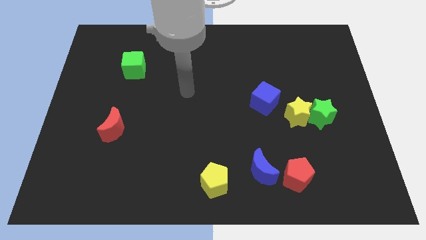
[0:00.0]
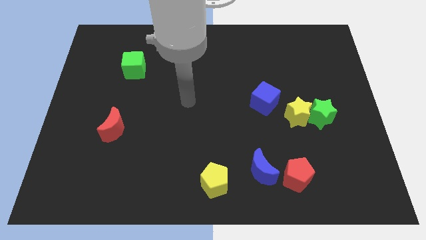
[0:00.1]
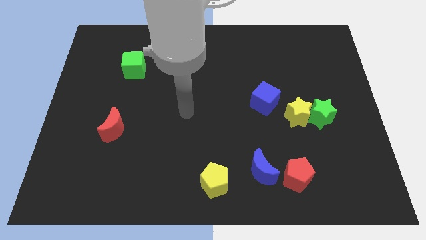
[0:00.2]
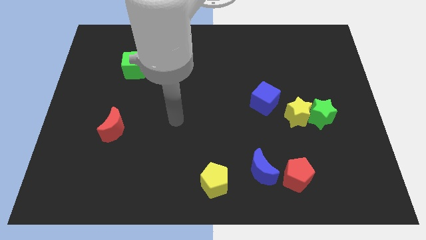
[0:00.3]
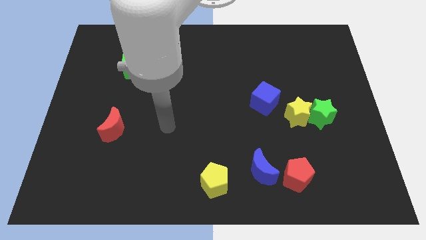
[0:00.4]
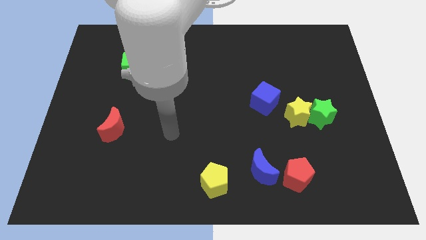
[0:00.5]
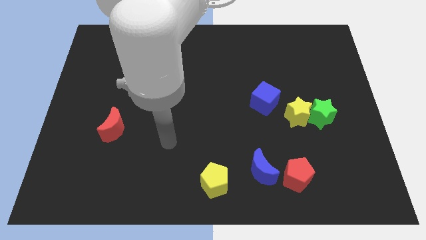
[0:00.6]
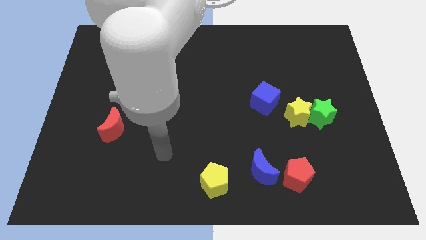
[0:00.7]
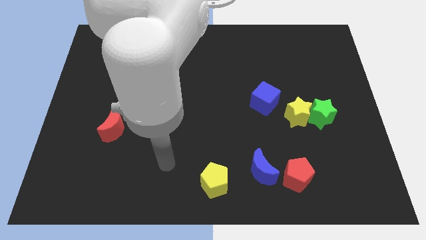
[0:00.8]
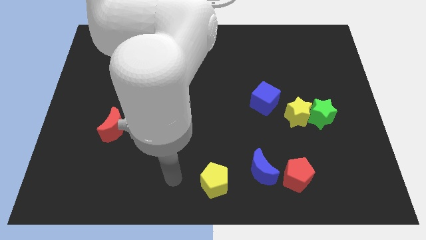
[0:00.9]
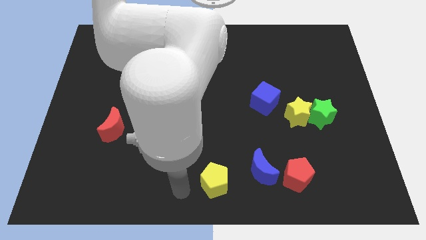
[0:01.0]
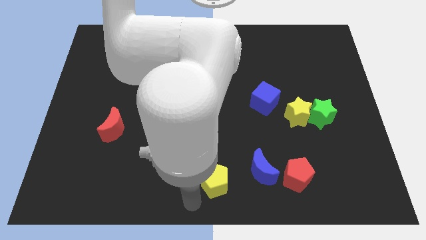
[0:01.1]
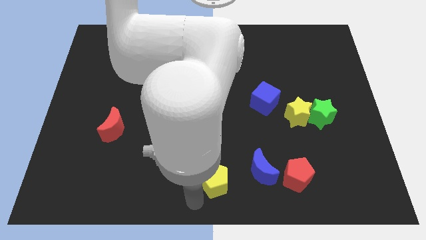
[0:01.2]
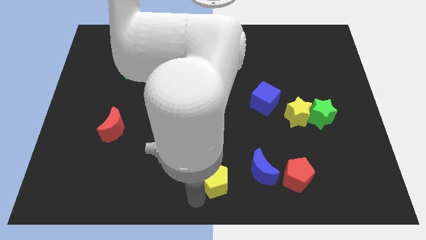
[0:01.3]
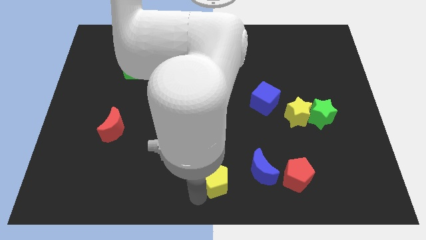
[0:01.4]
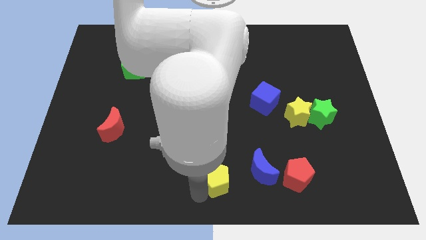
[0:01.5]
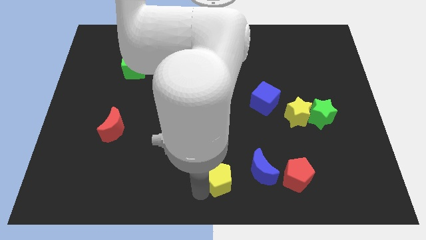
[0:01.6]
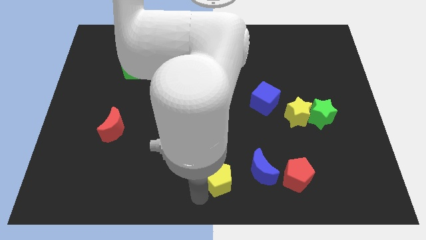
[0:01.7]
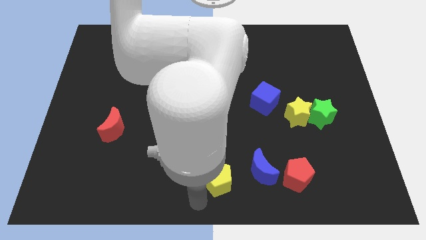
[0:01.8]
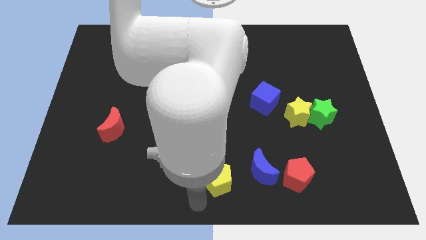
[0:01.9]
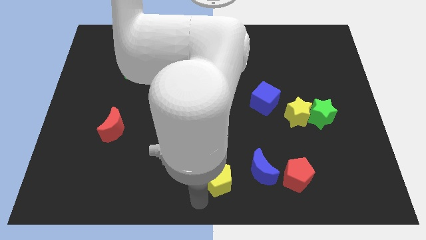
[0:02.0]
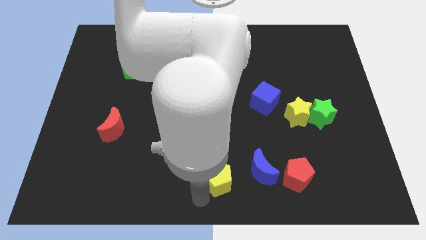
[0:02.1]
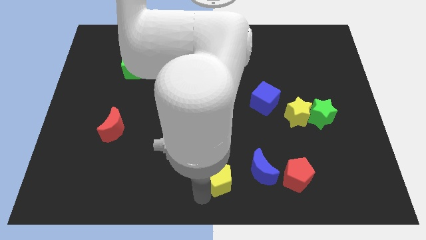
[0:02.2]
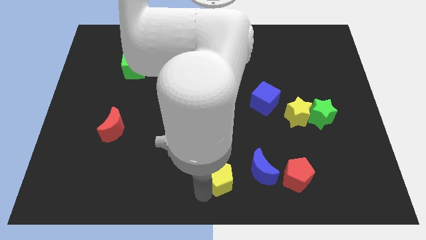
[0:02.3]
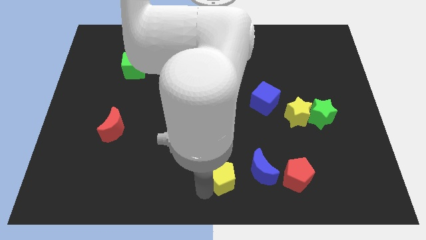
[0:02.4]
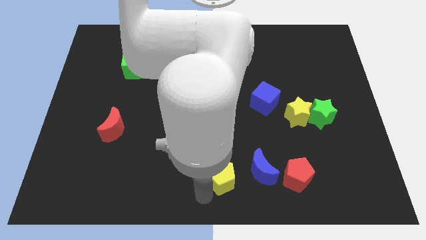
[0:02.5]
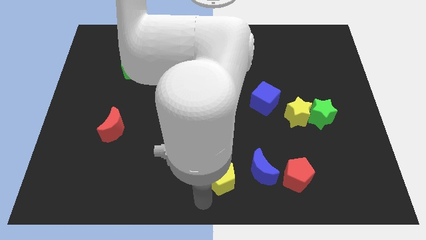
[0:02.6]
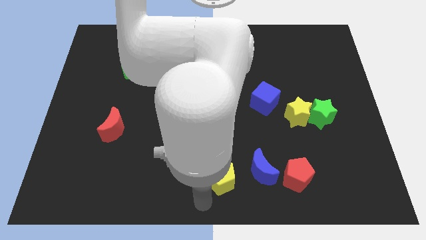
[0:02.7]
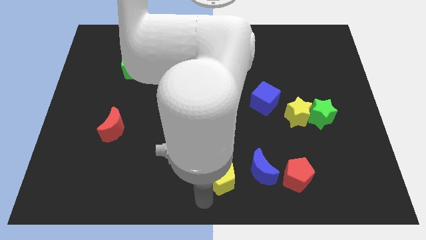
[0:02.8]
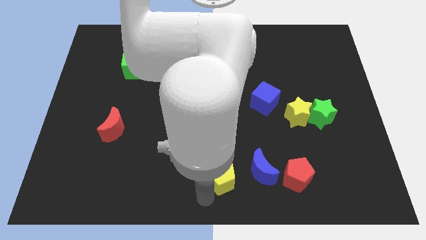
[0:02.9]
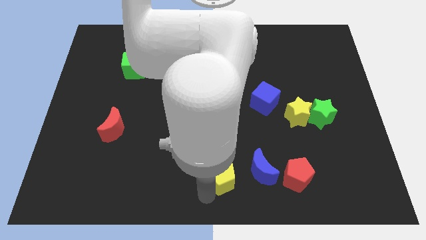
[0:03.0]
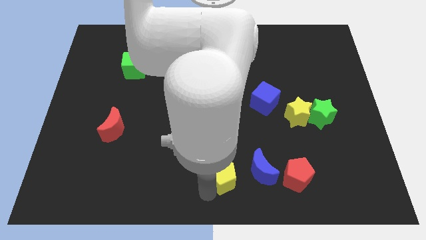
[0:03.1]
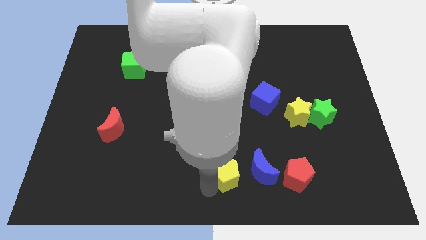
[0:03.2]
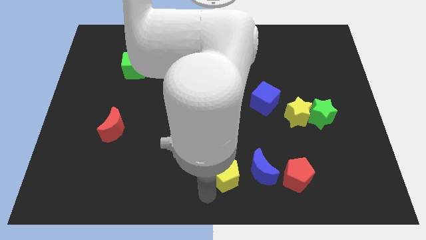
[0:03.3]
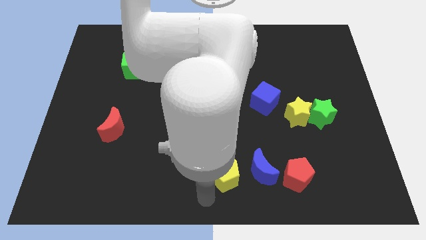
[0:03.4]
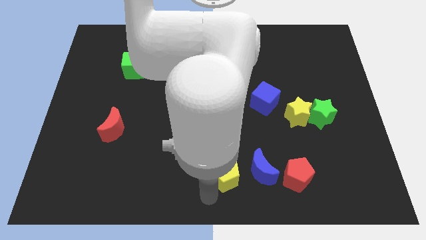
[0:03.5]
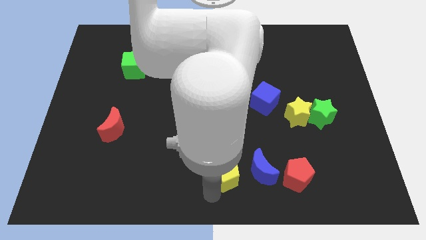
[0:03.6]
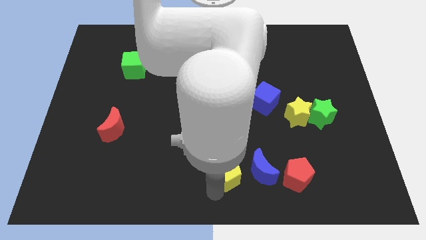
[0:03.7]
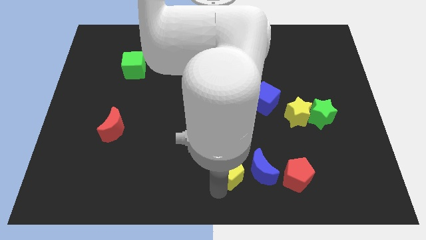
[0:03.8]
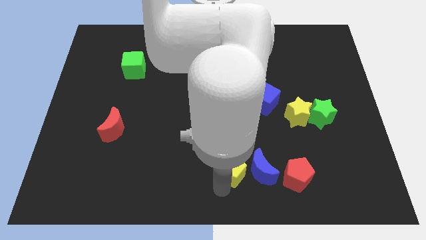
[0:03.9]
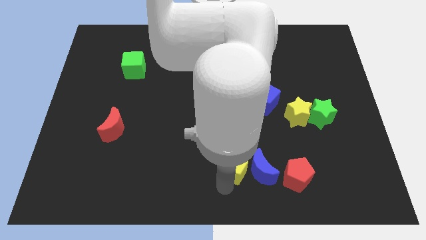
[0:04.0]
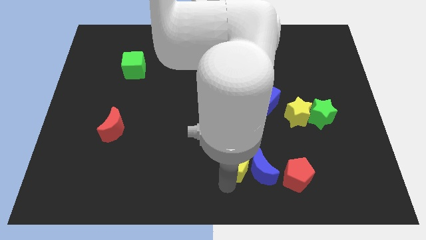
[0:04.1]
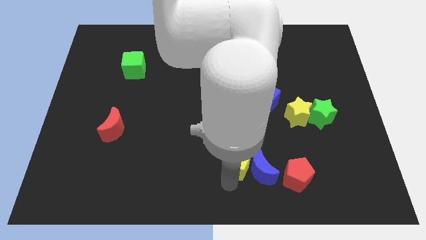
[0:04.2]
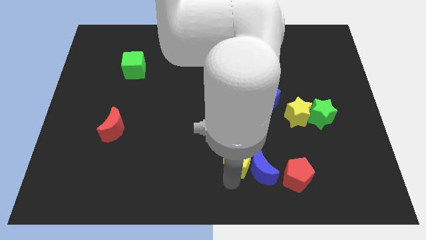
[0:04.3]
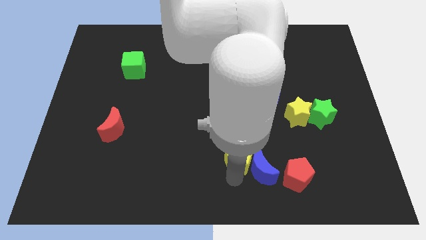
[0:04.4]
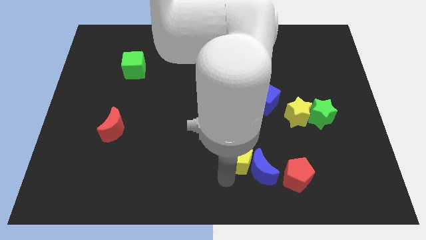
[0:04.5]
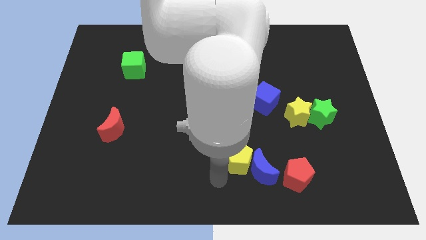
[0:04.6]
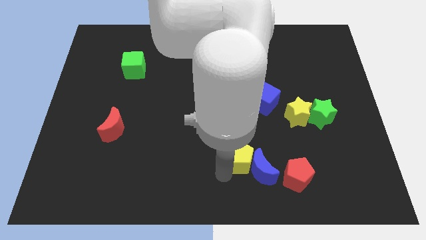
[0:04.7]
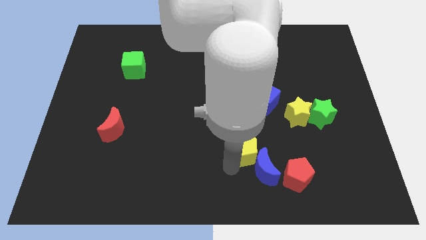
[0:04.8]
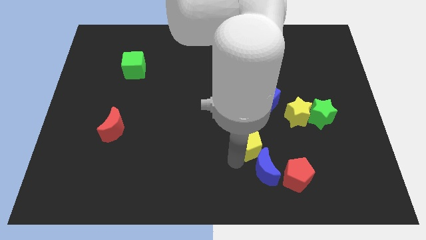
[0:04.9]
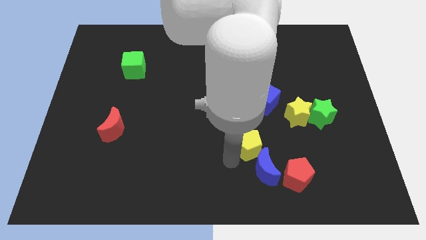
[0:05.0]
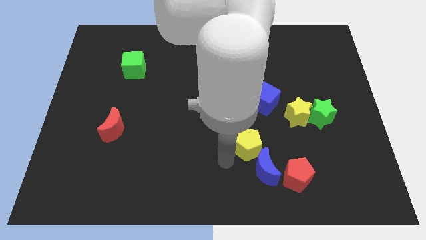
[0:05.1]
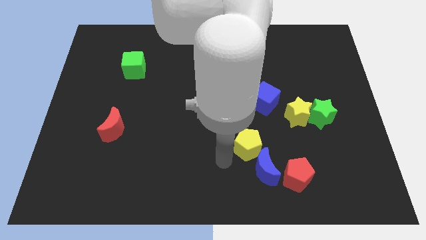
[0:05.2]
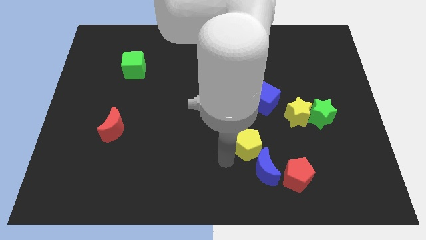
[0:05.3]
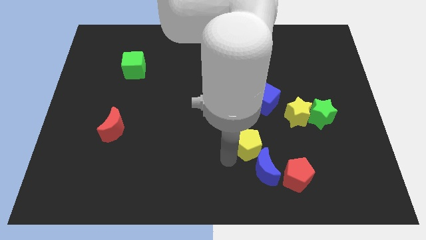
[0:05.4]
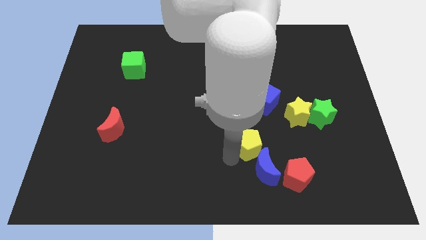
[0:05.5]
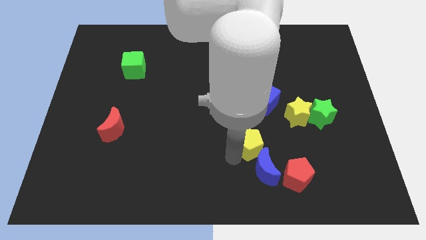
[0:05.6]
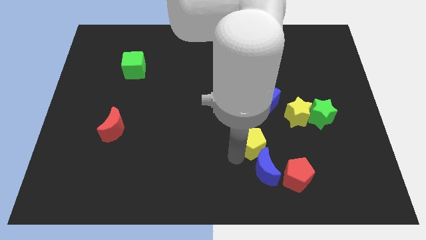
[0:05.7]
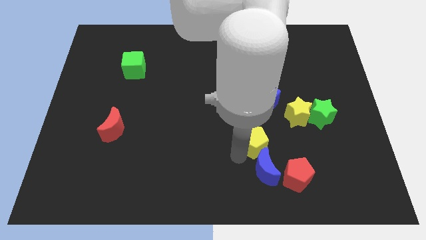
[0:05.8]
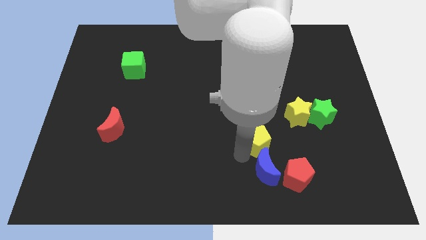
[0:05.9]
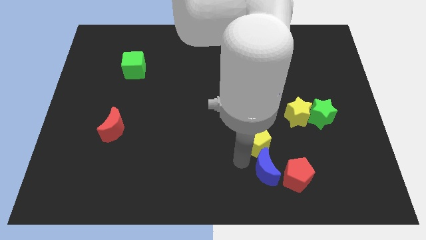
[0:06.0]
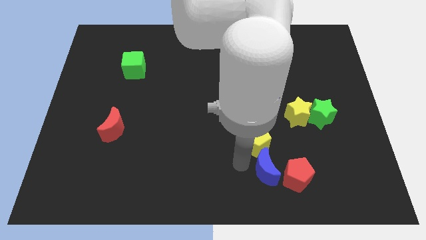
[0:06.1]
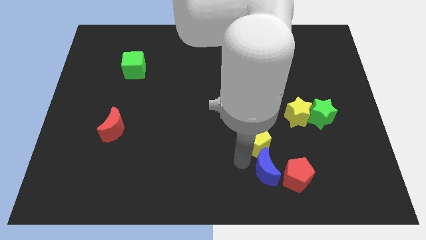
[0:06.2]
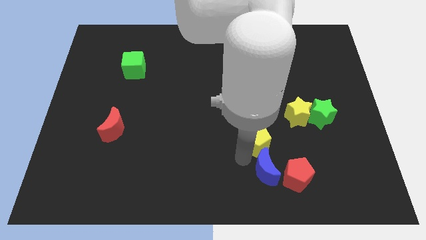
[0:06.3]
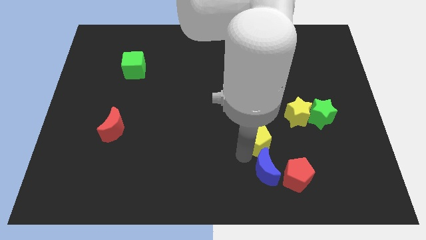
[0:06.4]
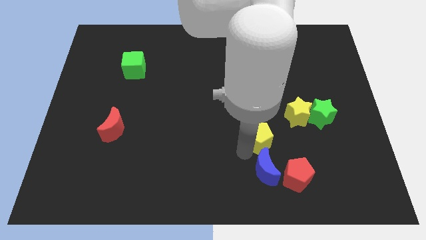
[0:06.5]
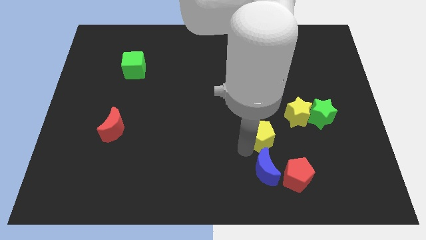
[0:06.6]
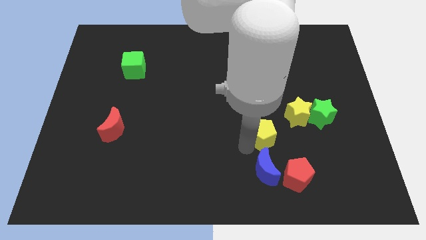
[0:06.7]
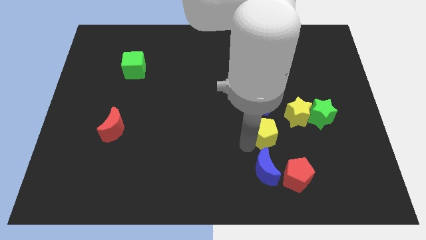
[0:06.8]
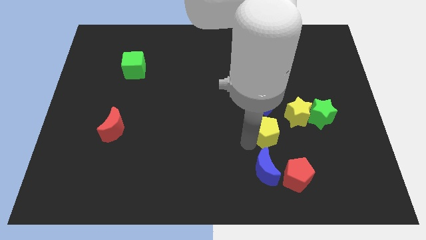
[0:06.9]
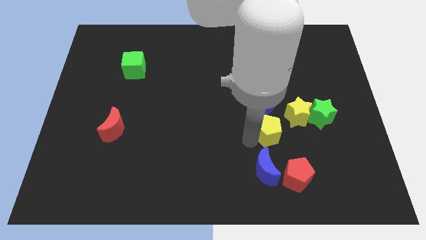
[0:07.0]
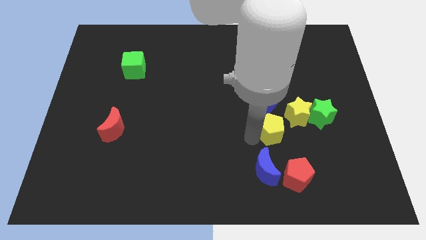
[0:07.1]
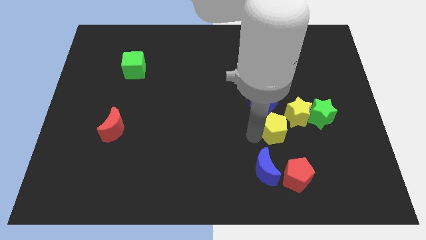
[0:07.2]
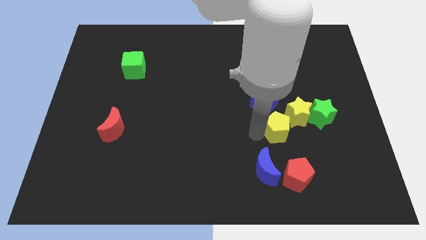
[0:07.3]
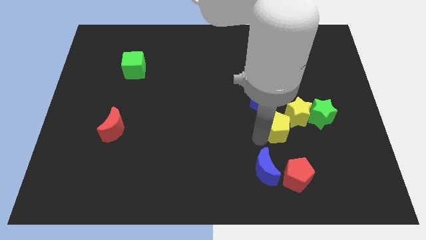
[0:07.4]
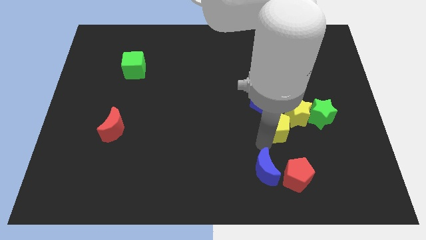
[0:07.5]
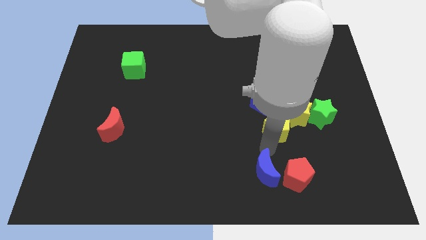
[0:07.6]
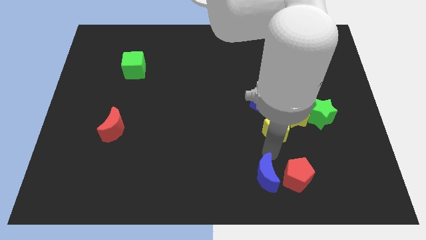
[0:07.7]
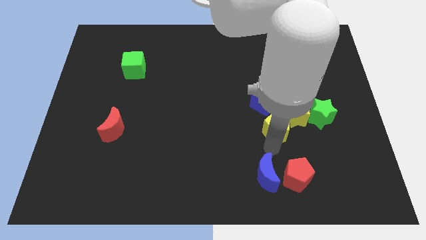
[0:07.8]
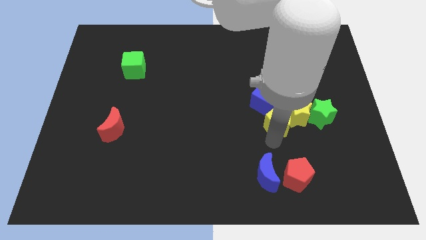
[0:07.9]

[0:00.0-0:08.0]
slide the yellow pentagon diagonally up and to the right

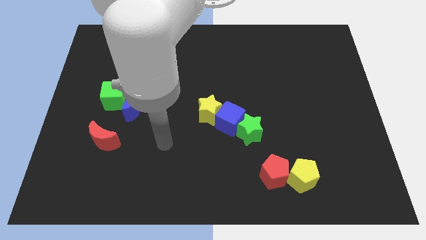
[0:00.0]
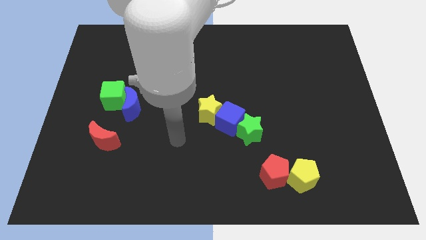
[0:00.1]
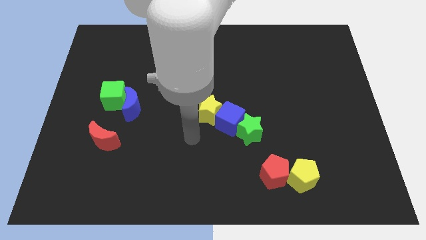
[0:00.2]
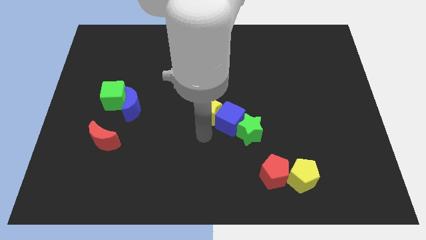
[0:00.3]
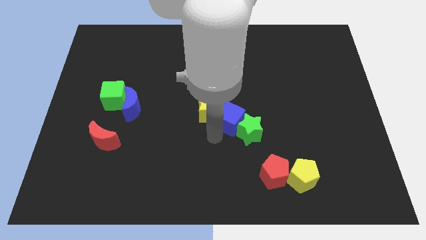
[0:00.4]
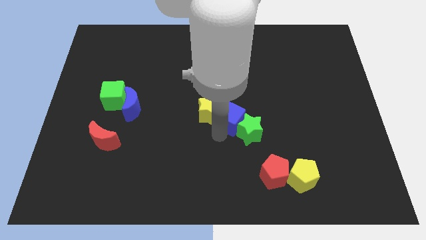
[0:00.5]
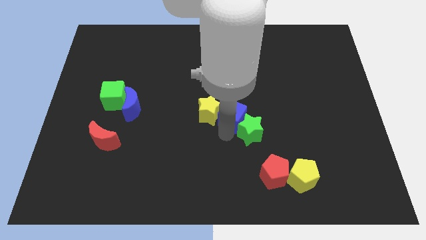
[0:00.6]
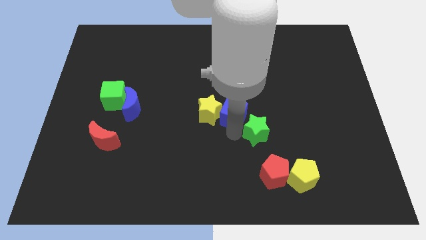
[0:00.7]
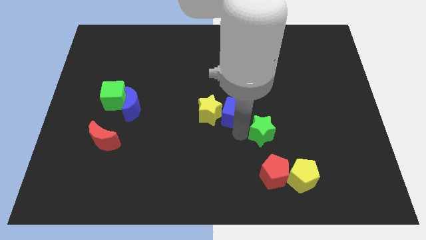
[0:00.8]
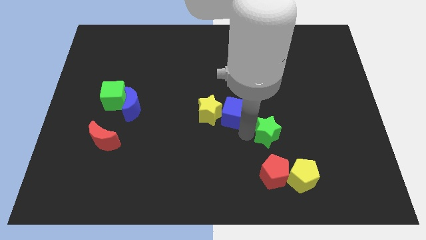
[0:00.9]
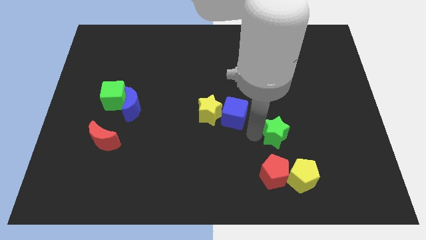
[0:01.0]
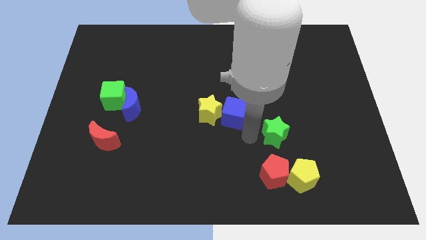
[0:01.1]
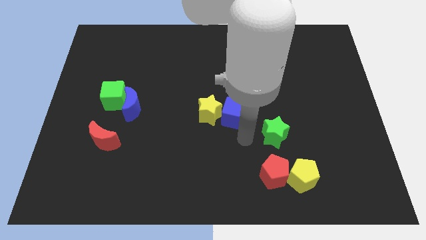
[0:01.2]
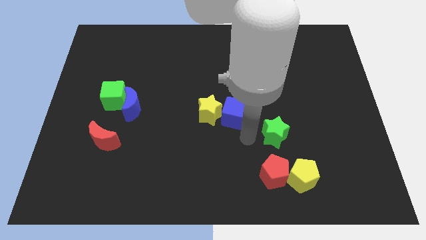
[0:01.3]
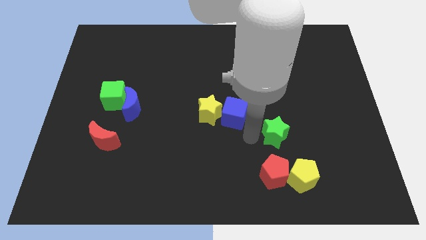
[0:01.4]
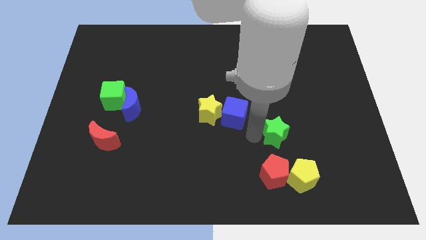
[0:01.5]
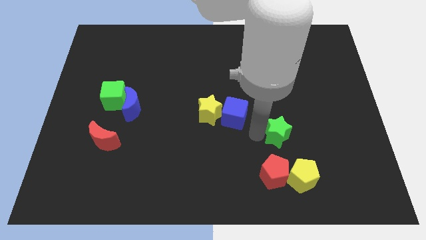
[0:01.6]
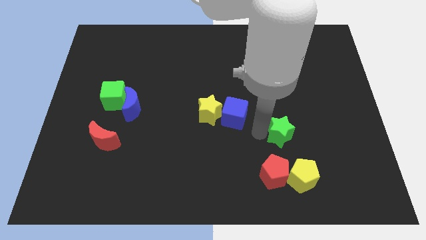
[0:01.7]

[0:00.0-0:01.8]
move the green star slightly to the right
